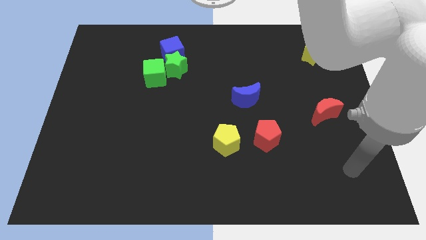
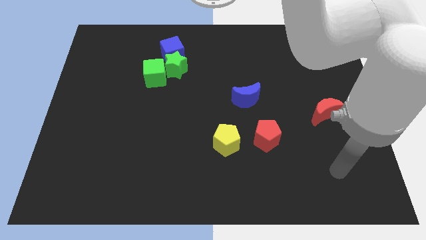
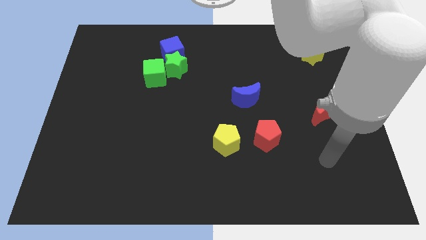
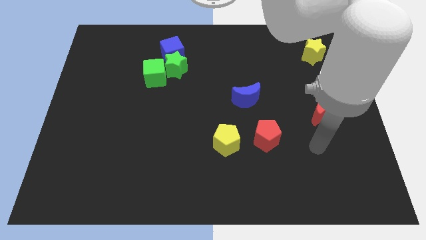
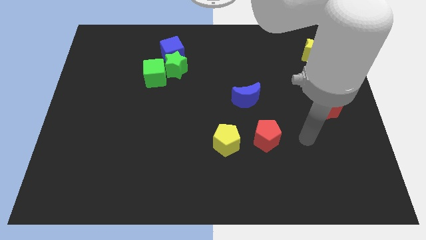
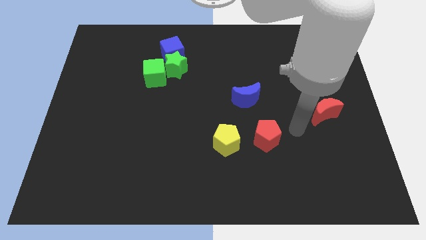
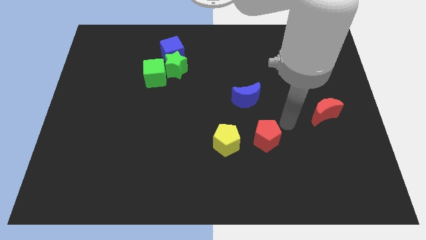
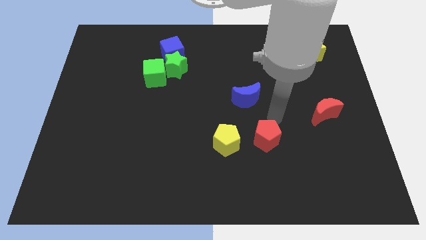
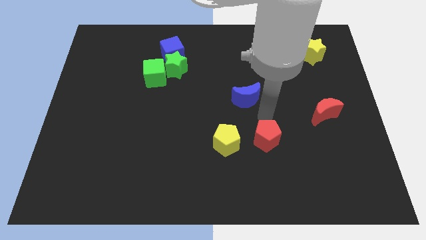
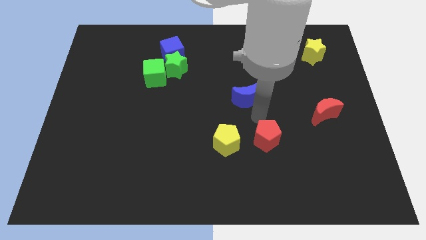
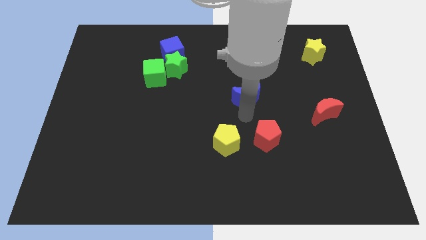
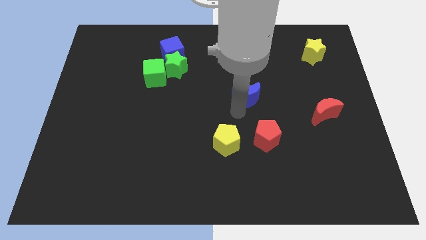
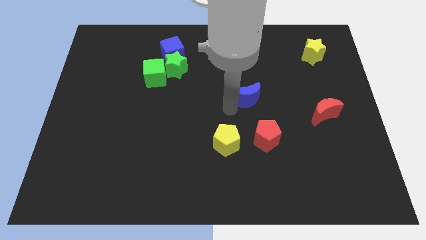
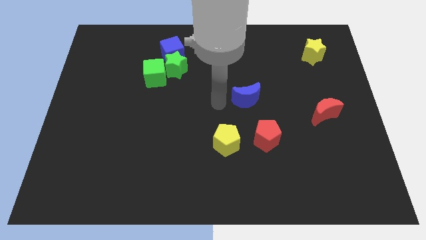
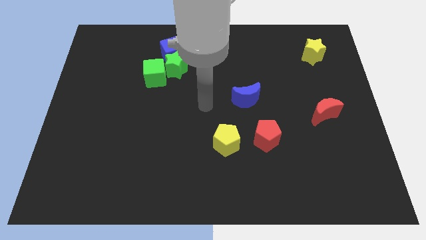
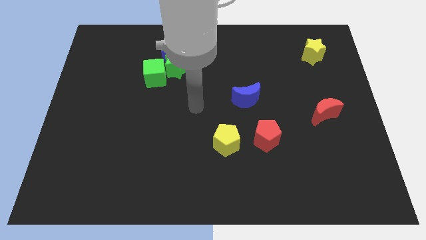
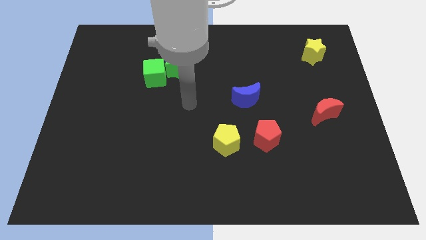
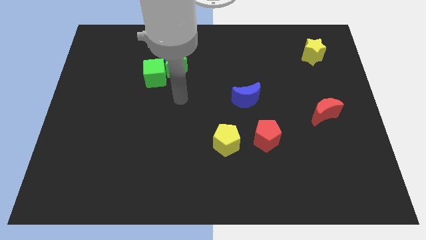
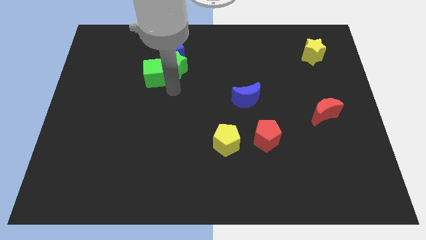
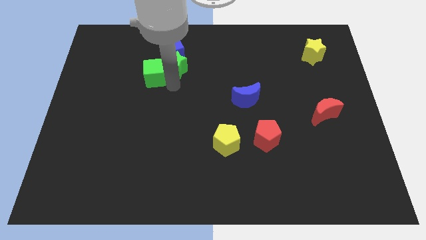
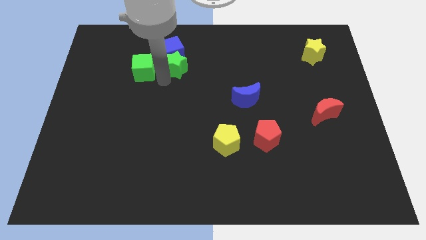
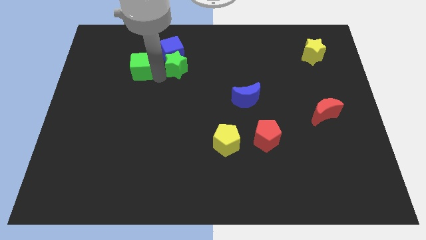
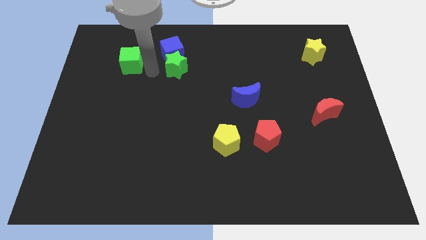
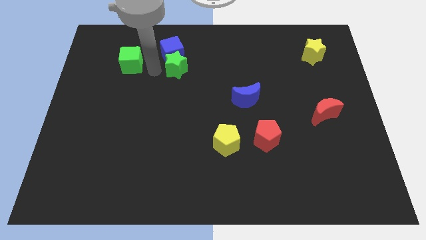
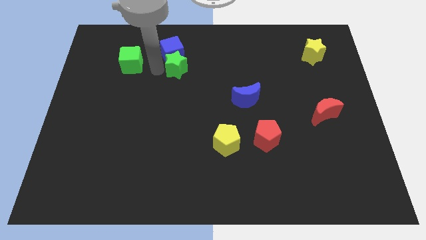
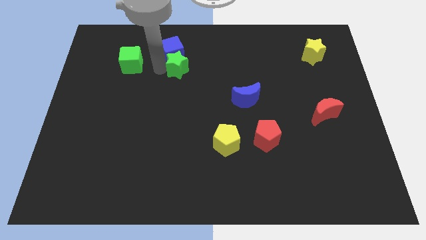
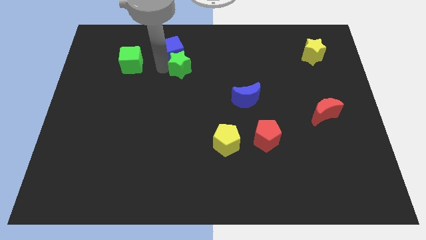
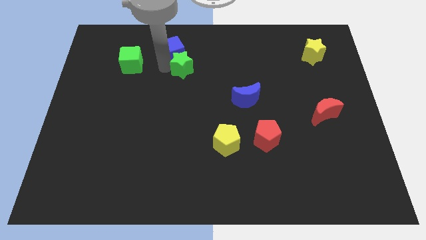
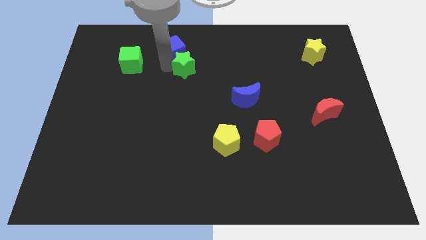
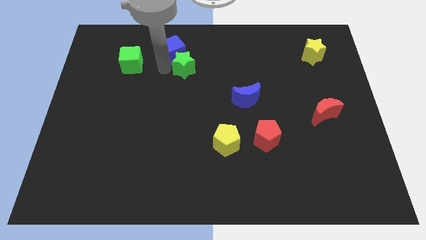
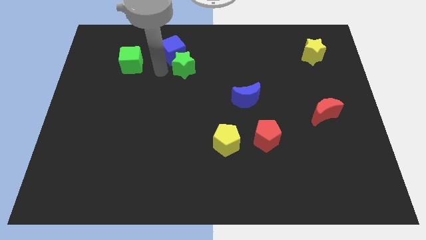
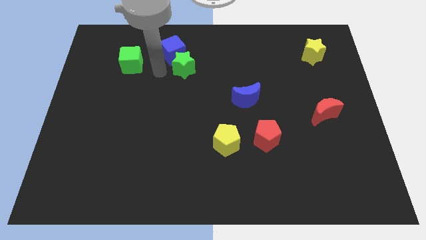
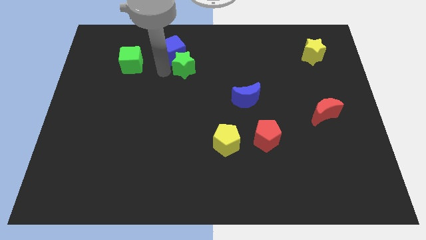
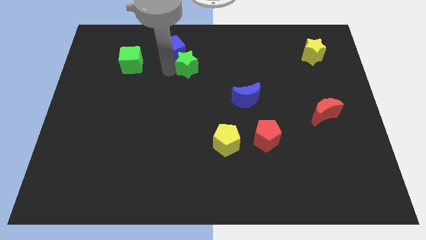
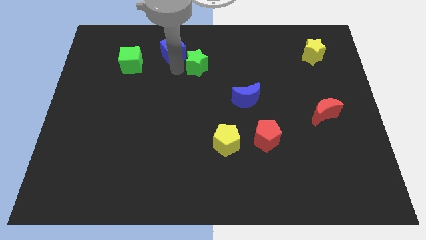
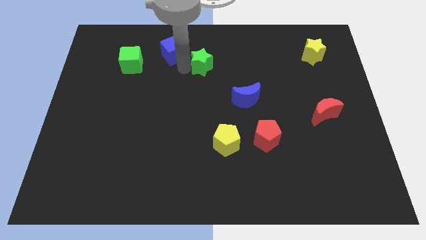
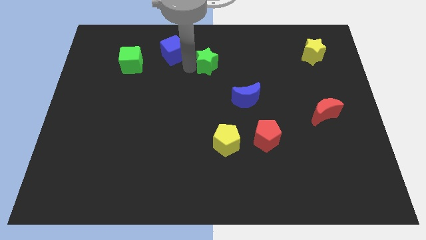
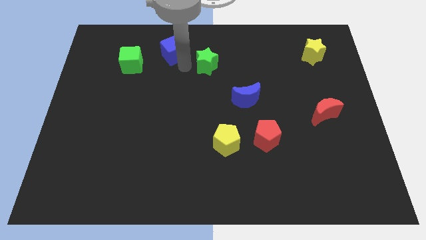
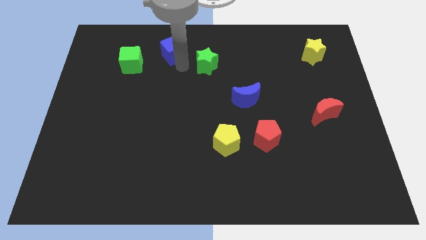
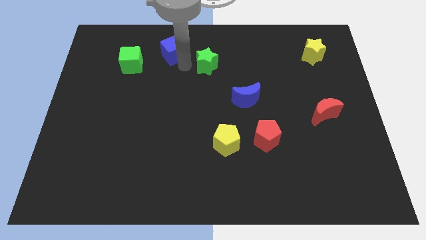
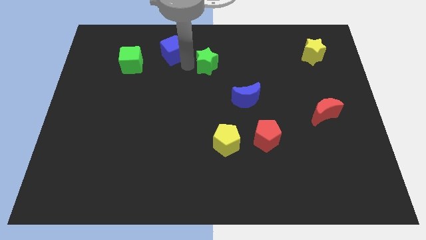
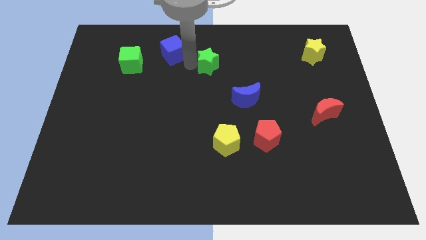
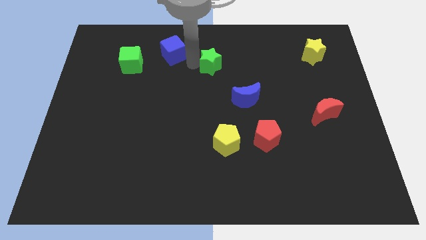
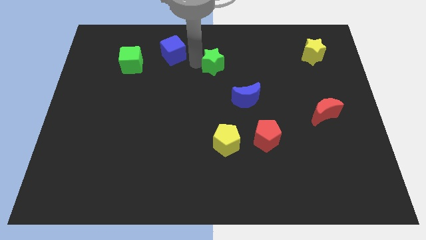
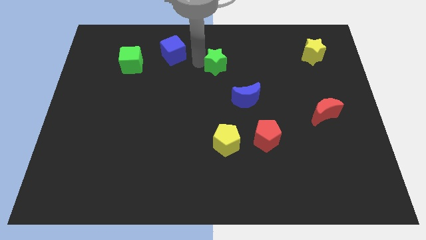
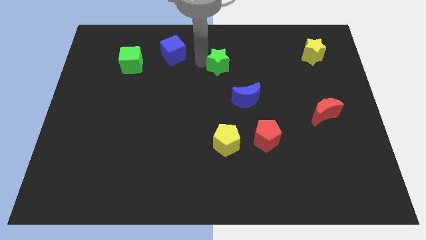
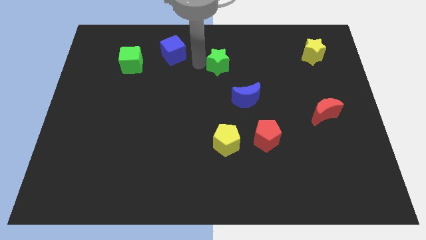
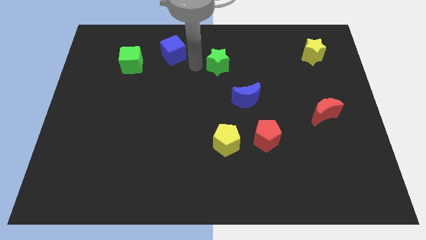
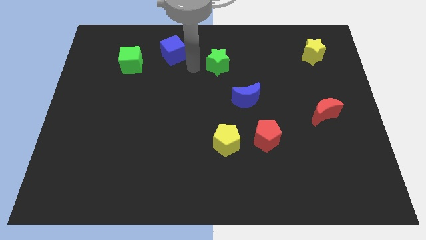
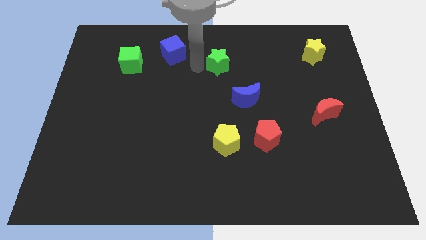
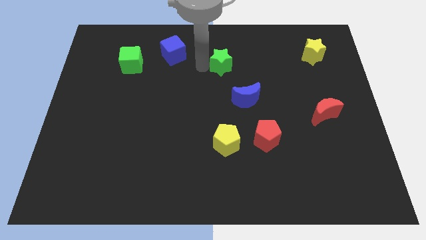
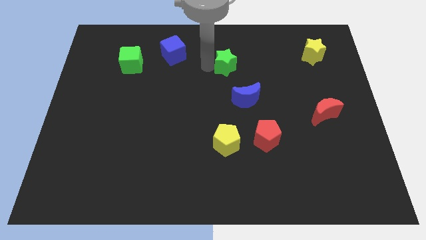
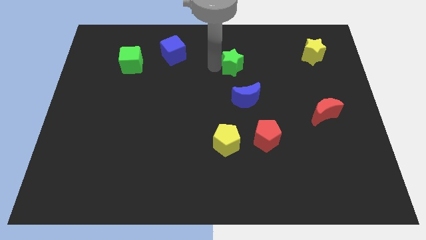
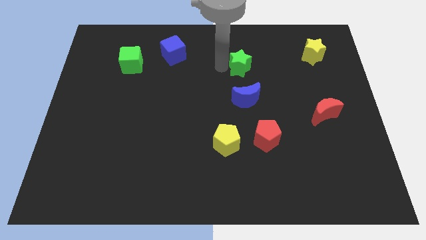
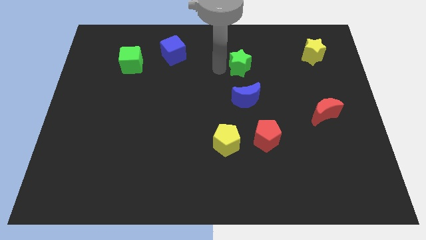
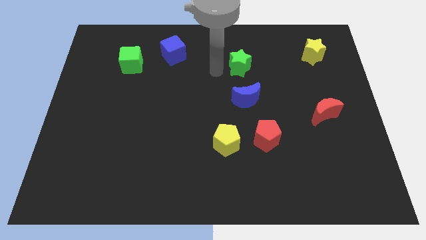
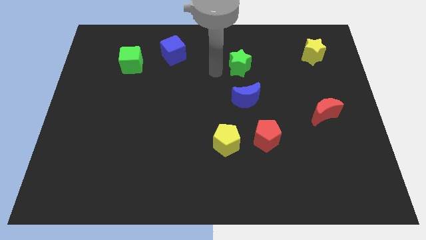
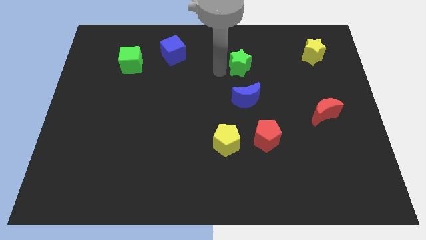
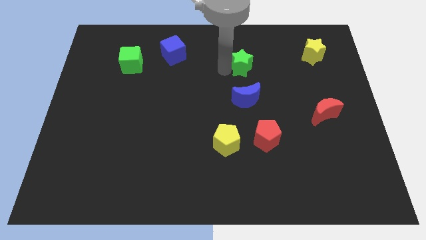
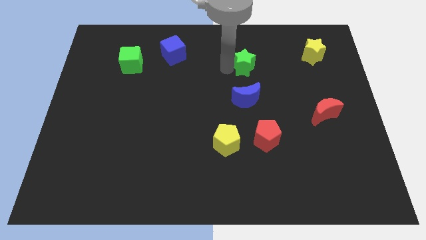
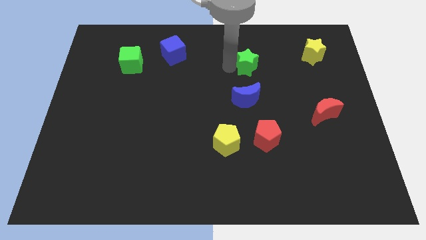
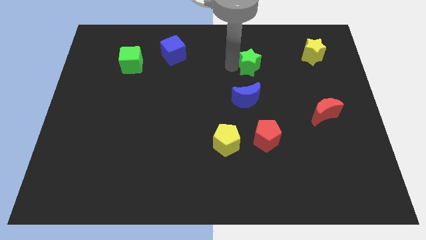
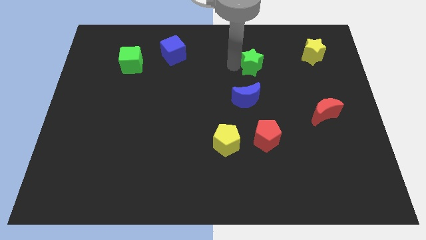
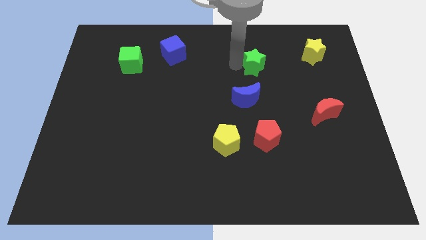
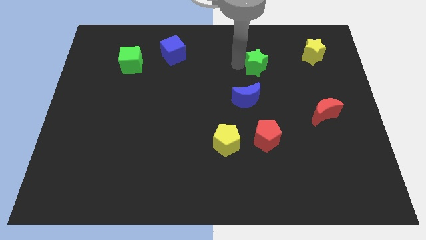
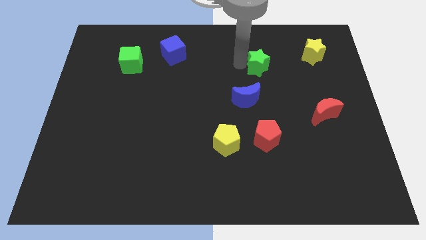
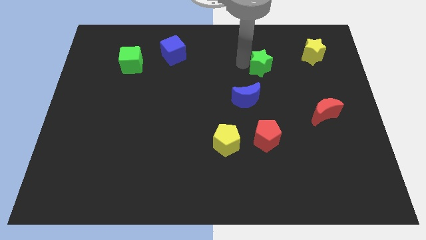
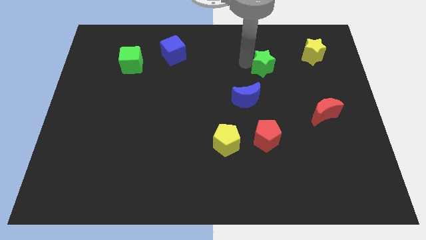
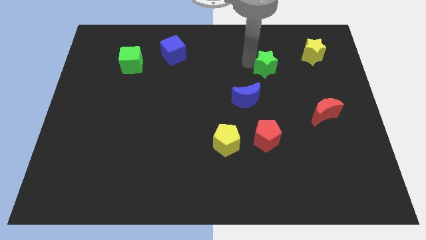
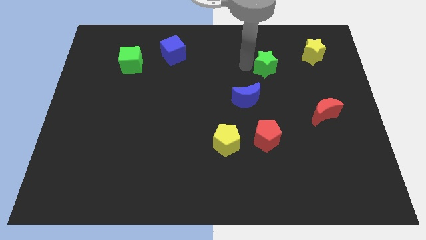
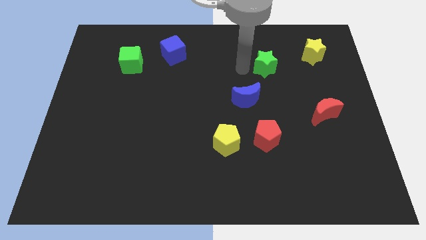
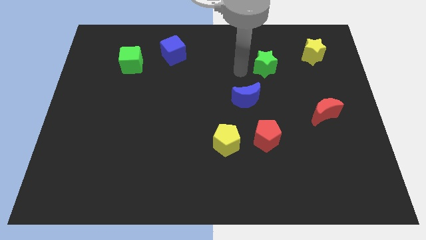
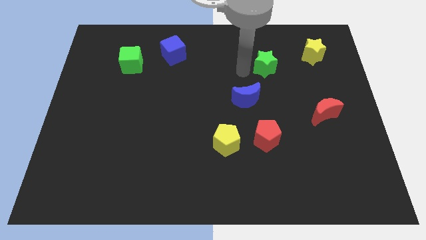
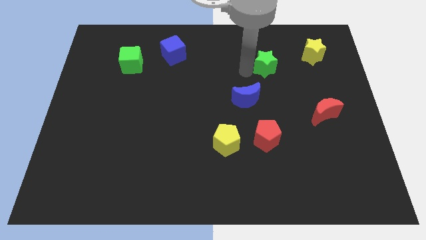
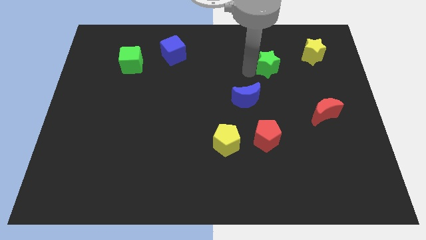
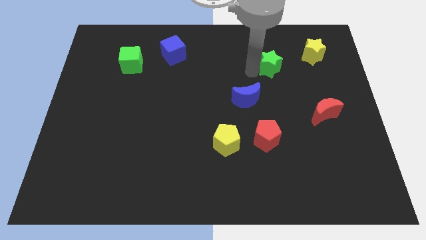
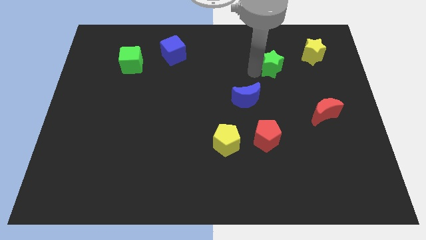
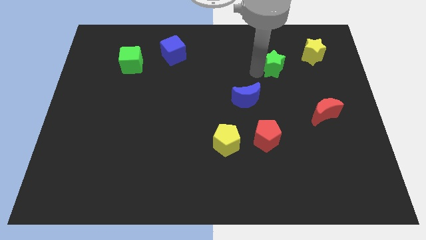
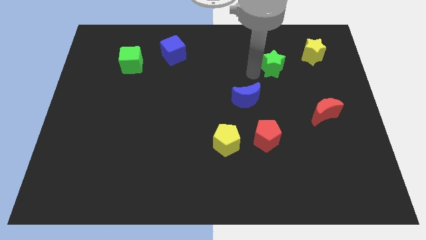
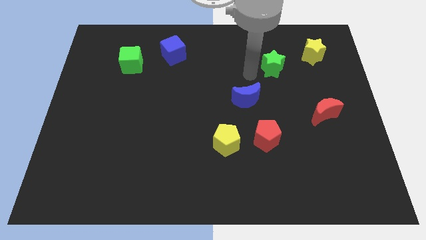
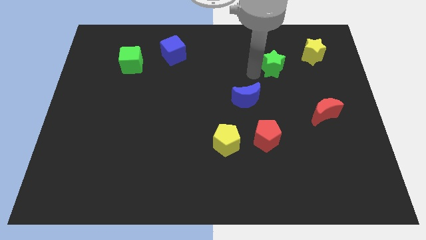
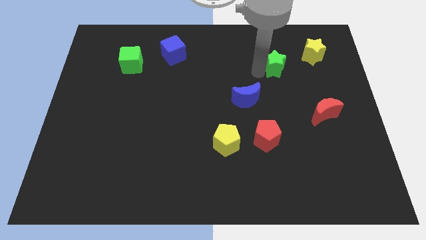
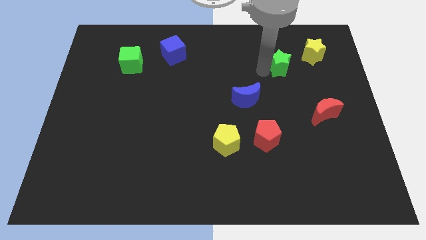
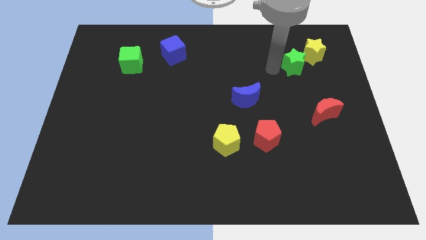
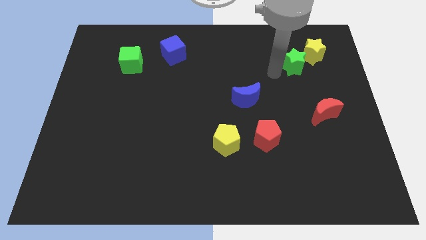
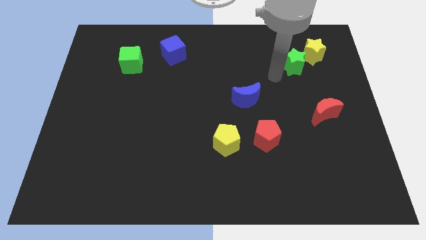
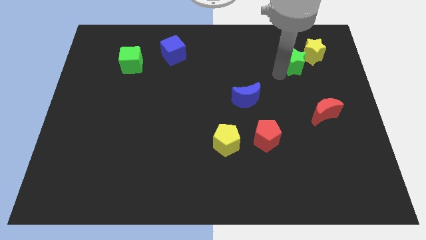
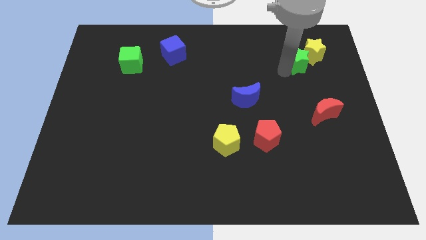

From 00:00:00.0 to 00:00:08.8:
push the green star to the yellow star

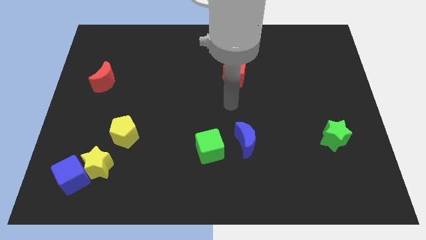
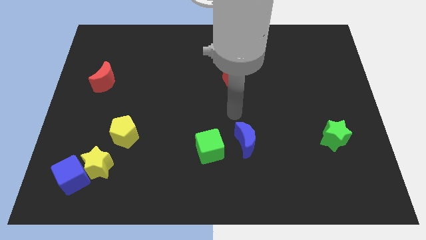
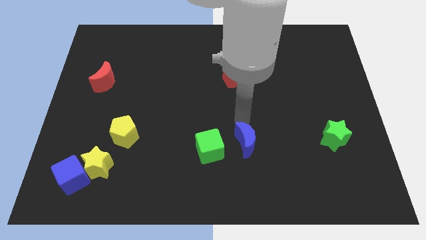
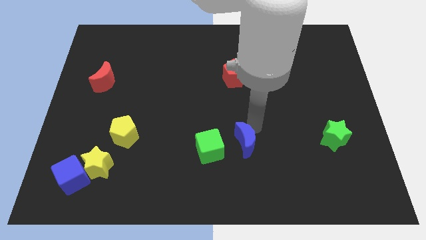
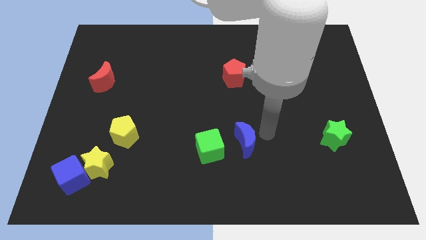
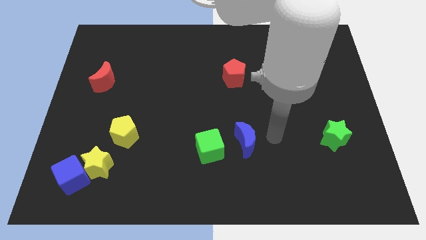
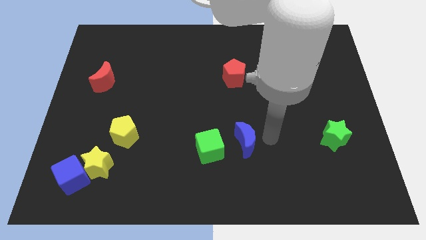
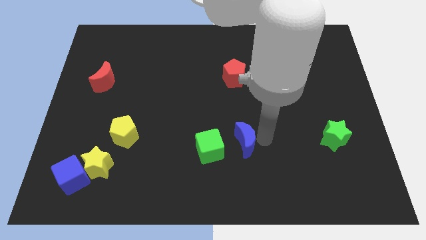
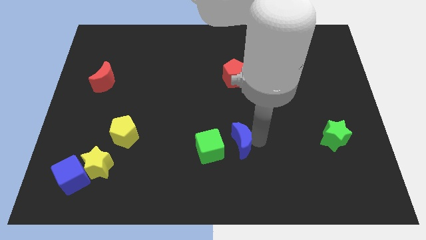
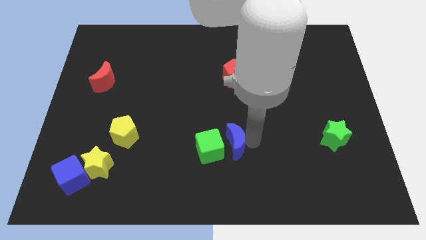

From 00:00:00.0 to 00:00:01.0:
move the blue moon close to the green cube
